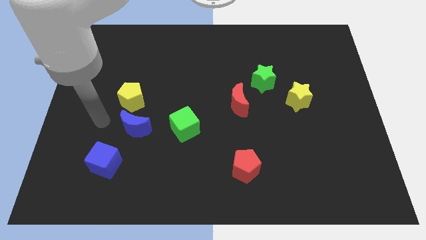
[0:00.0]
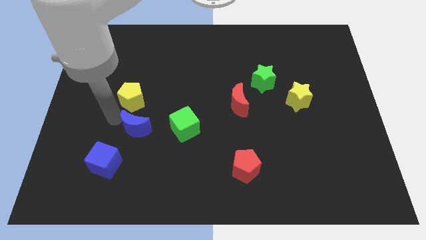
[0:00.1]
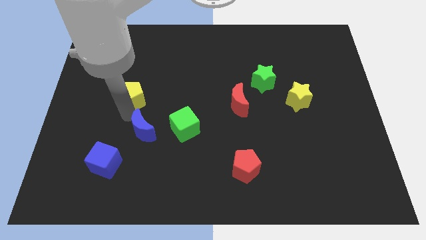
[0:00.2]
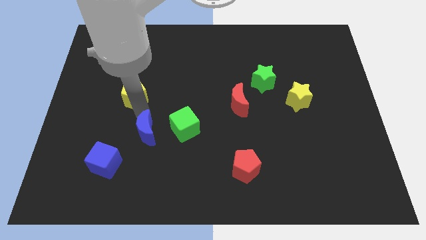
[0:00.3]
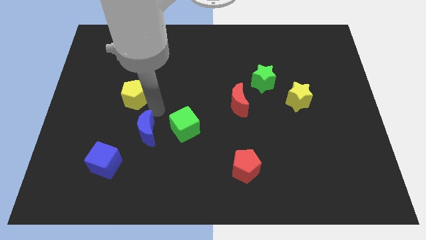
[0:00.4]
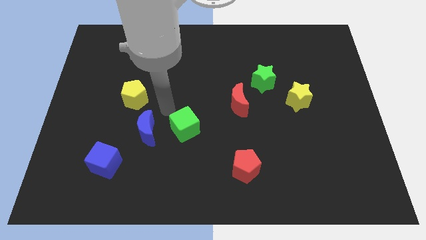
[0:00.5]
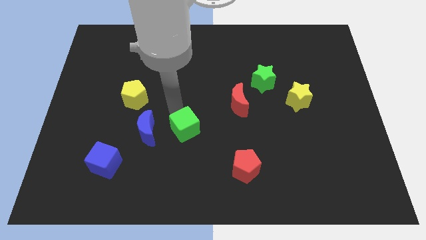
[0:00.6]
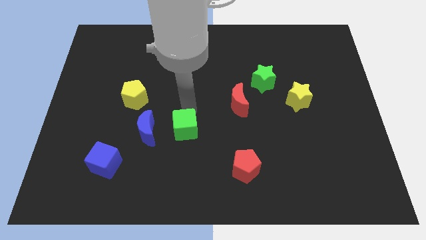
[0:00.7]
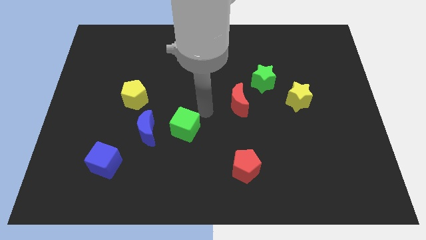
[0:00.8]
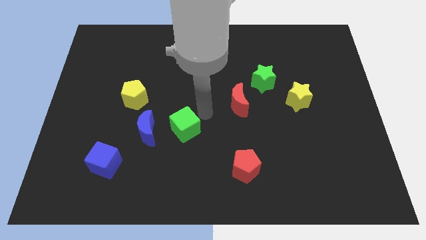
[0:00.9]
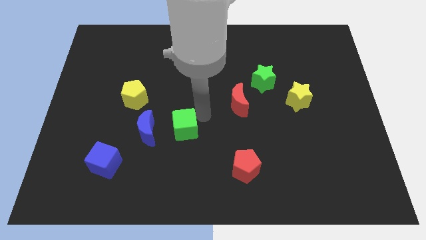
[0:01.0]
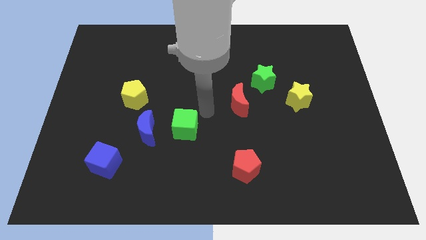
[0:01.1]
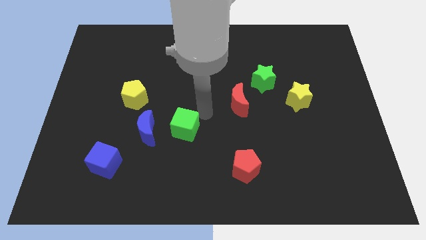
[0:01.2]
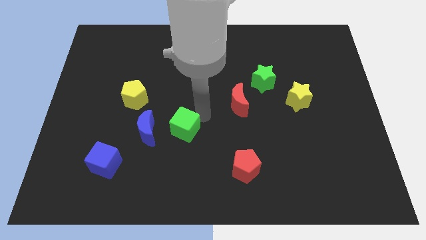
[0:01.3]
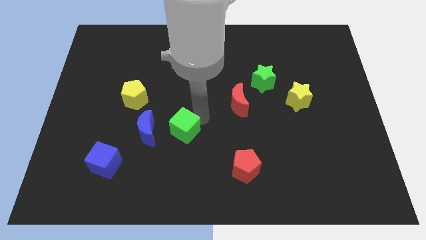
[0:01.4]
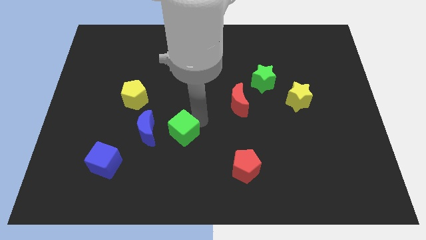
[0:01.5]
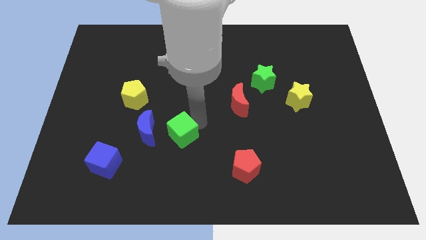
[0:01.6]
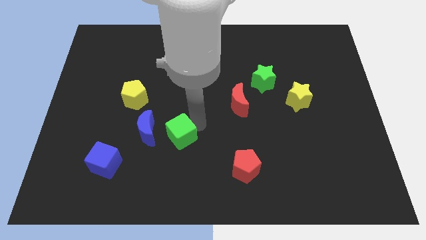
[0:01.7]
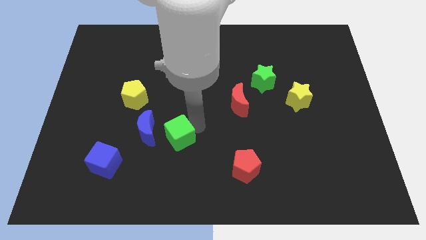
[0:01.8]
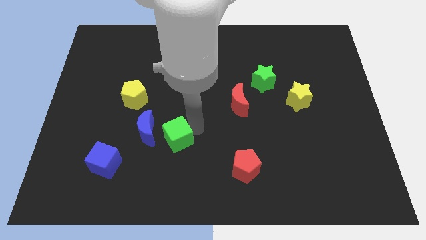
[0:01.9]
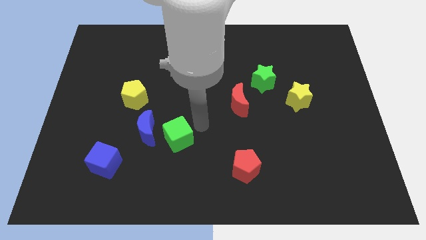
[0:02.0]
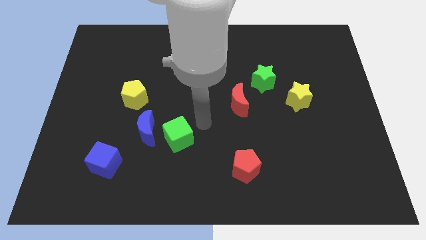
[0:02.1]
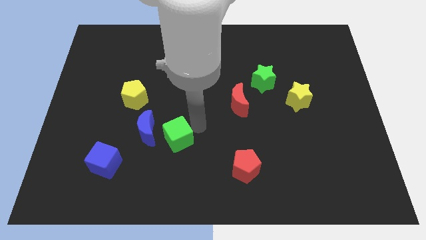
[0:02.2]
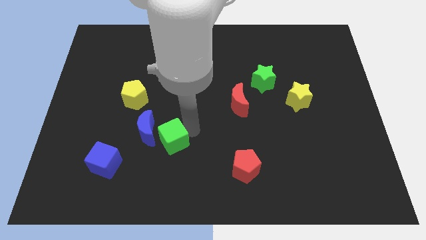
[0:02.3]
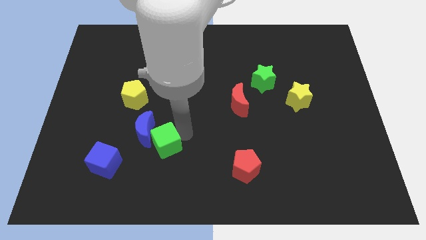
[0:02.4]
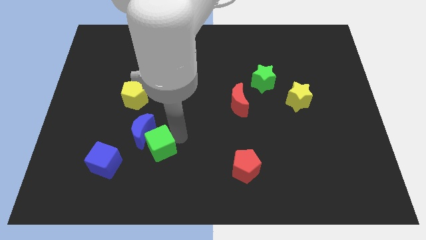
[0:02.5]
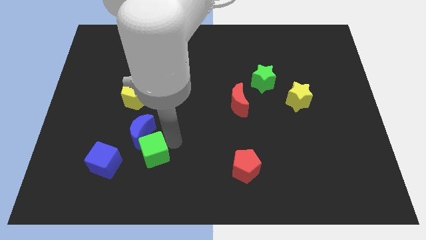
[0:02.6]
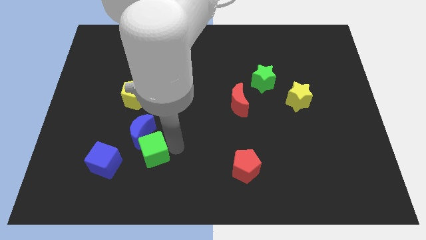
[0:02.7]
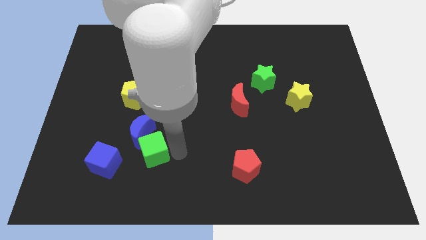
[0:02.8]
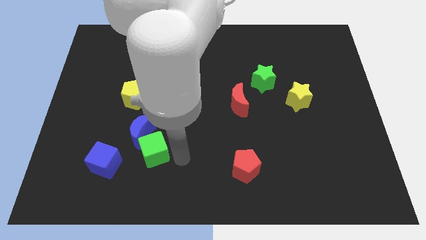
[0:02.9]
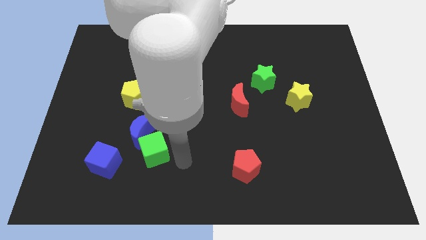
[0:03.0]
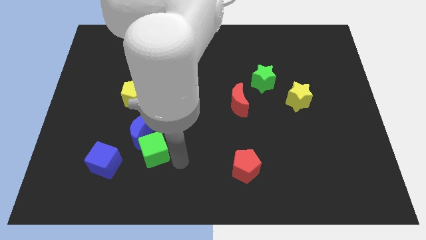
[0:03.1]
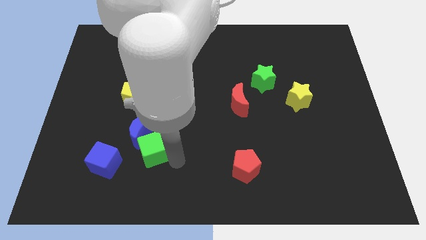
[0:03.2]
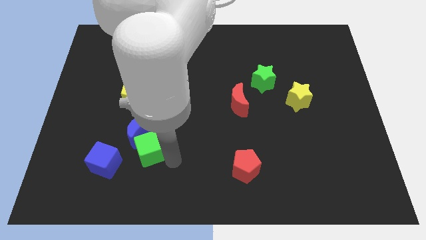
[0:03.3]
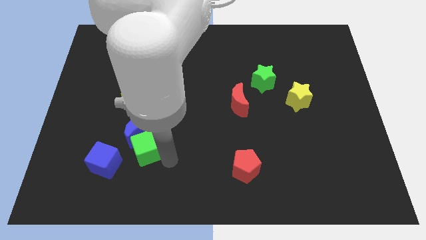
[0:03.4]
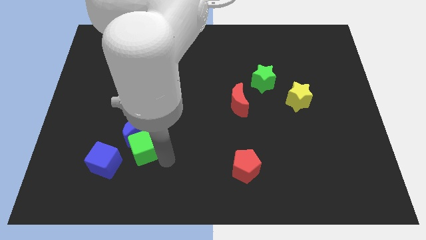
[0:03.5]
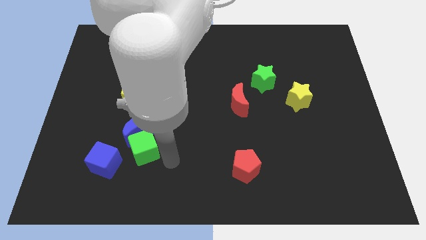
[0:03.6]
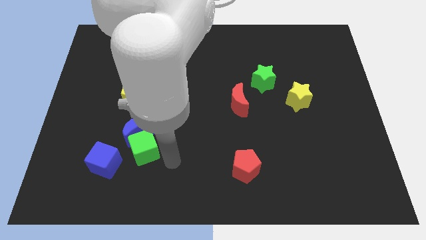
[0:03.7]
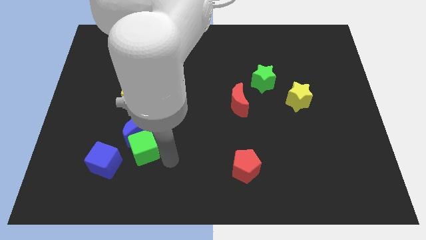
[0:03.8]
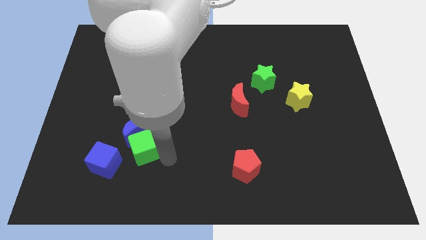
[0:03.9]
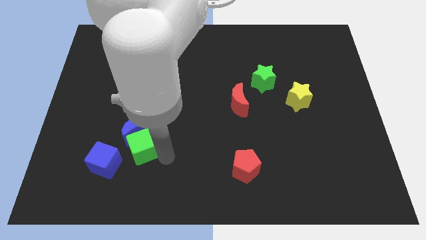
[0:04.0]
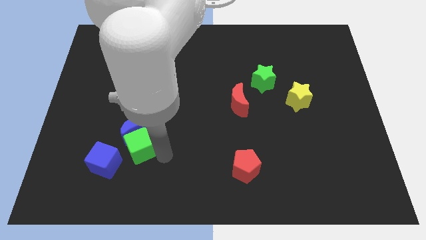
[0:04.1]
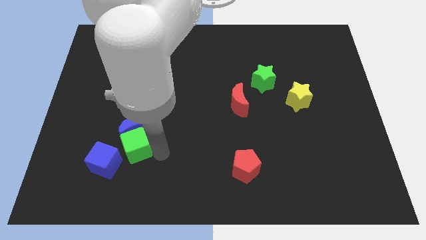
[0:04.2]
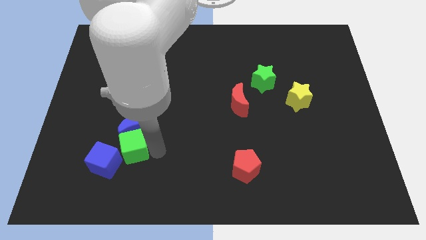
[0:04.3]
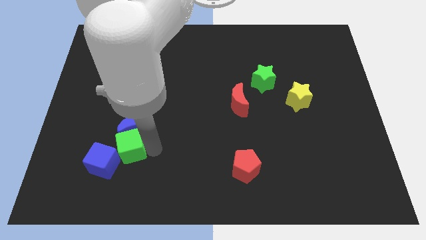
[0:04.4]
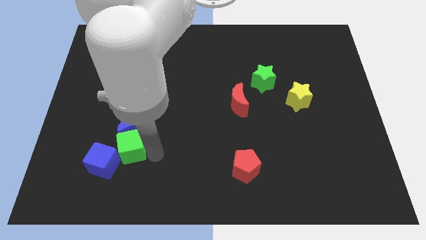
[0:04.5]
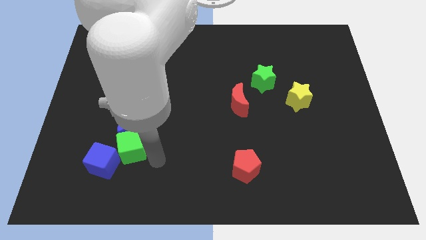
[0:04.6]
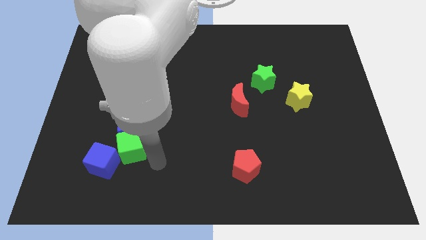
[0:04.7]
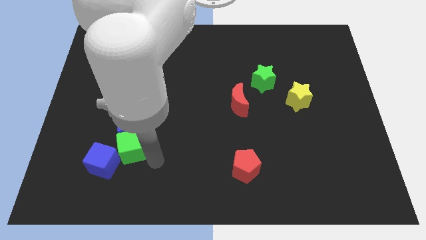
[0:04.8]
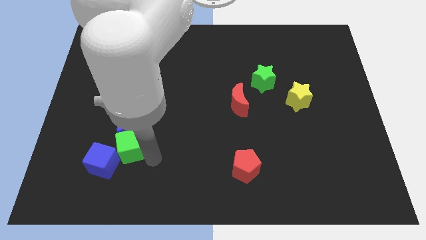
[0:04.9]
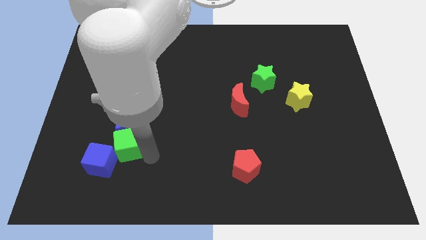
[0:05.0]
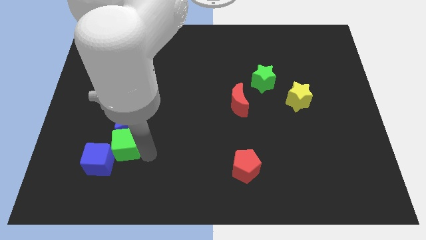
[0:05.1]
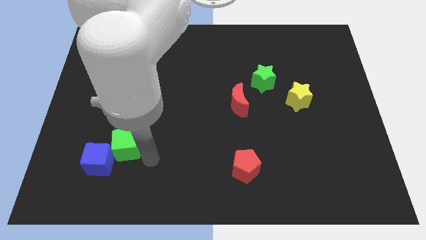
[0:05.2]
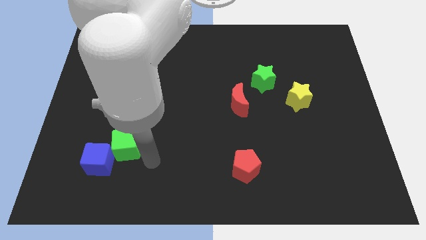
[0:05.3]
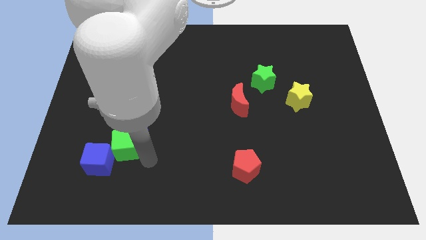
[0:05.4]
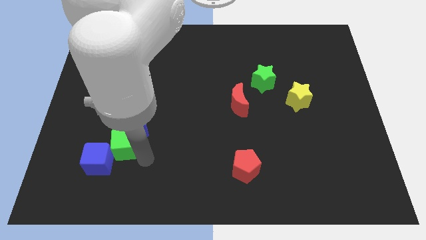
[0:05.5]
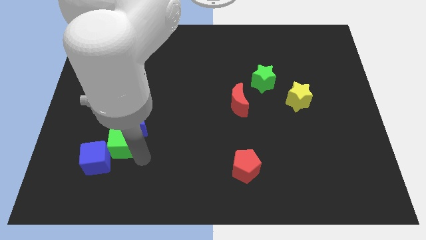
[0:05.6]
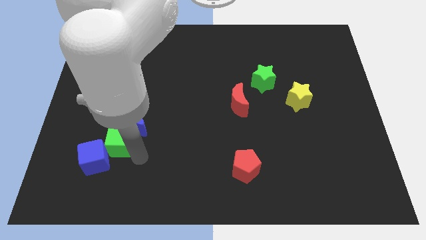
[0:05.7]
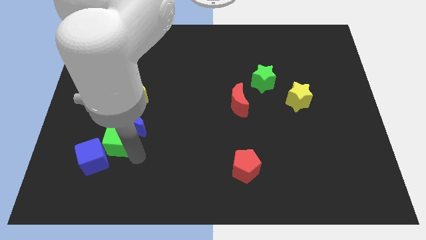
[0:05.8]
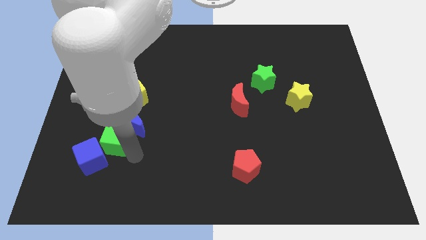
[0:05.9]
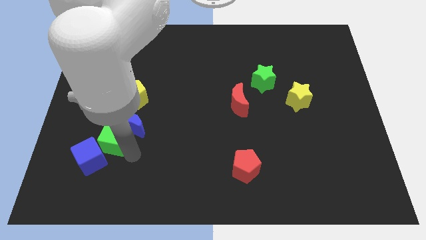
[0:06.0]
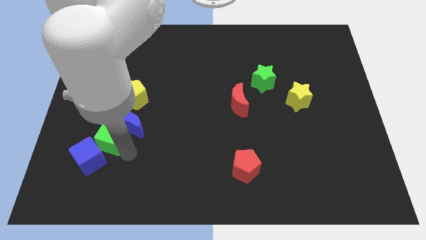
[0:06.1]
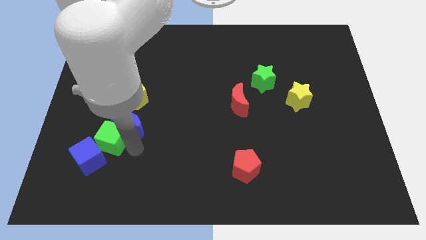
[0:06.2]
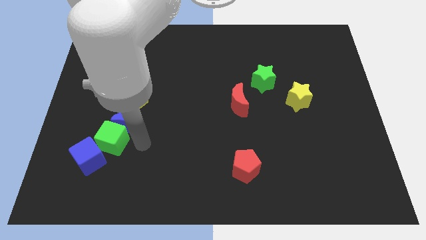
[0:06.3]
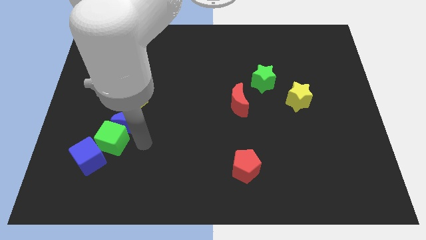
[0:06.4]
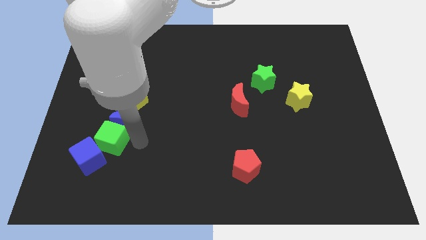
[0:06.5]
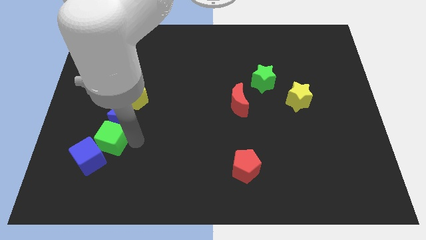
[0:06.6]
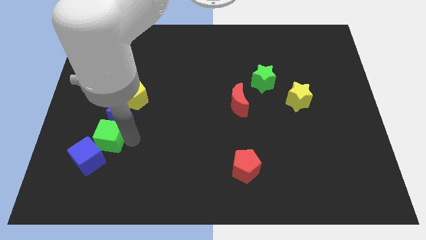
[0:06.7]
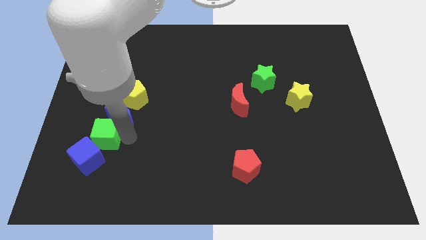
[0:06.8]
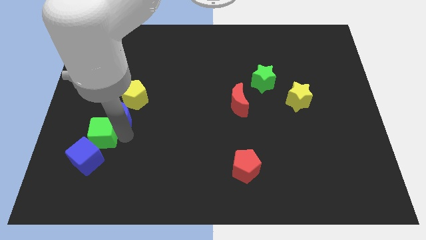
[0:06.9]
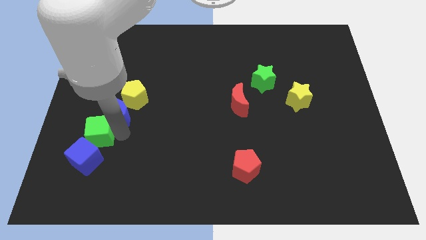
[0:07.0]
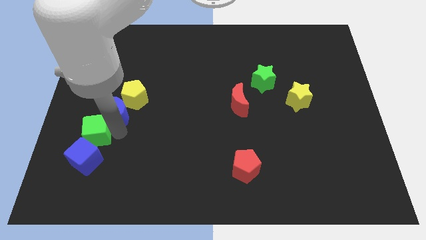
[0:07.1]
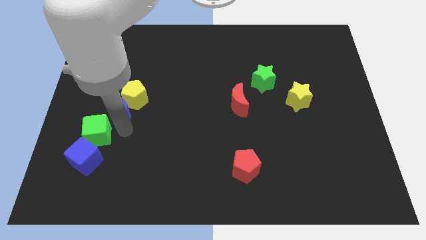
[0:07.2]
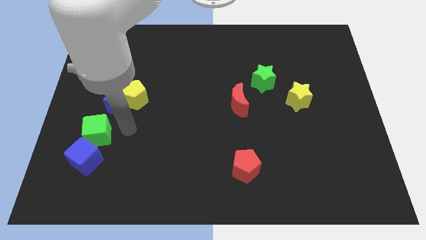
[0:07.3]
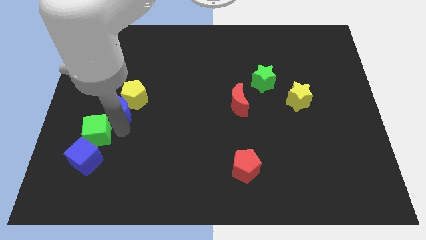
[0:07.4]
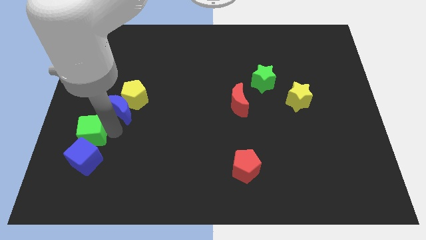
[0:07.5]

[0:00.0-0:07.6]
push the green cube to the top left side of the blue cube
